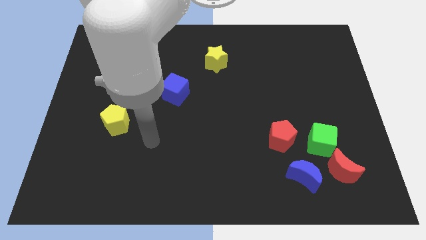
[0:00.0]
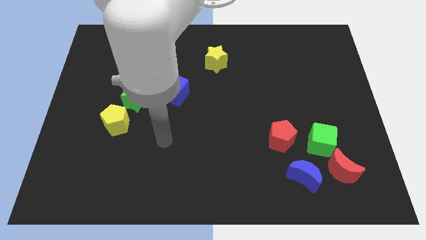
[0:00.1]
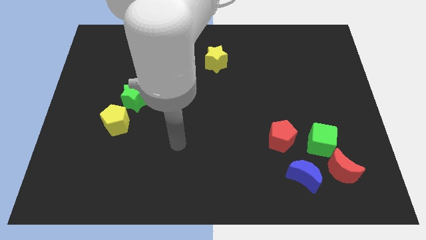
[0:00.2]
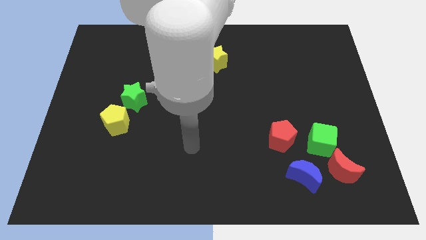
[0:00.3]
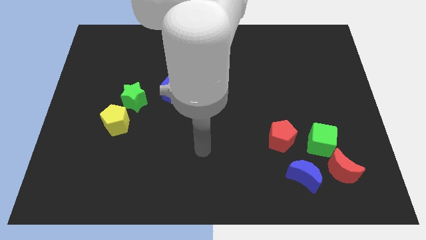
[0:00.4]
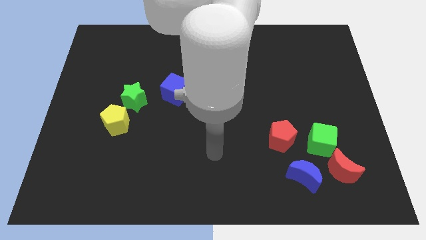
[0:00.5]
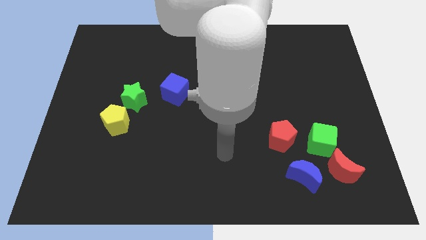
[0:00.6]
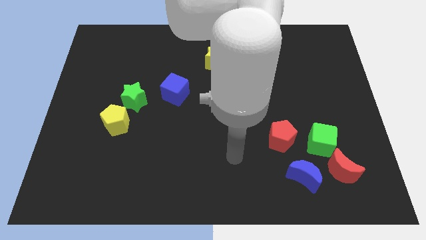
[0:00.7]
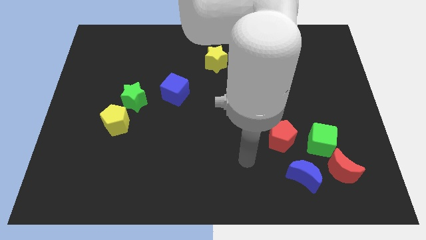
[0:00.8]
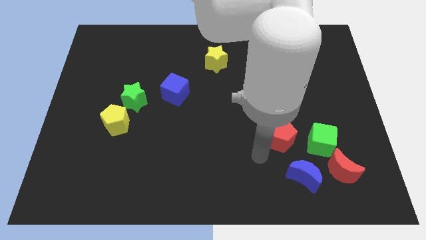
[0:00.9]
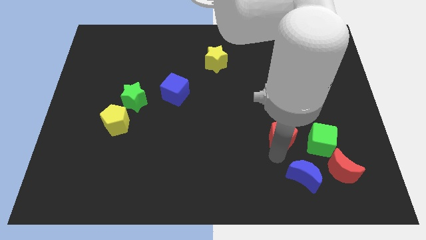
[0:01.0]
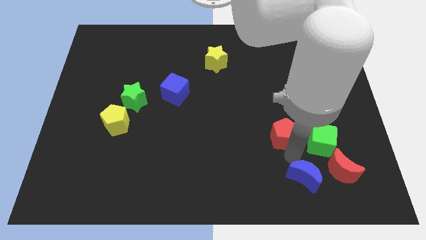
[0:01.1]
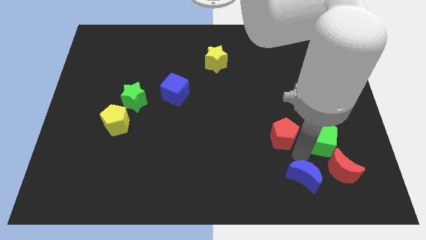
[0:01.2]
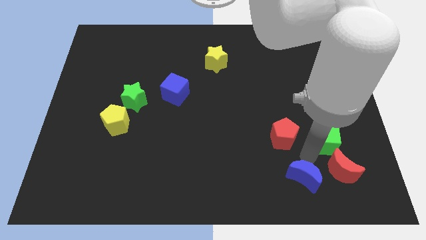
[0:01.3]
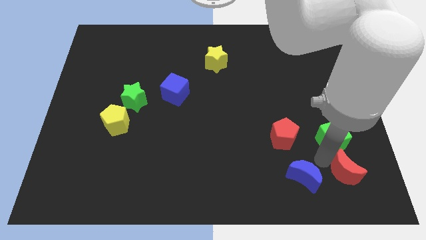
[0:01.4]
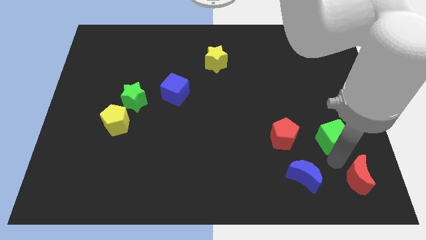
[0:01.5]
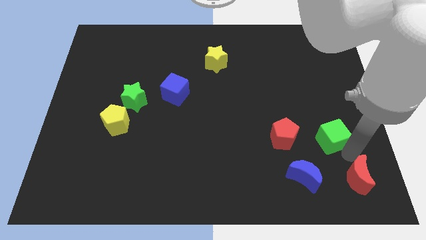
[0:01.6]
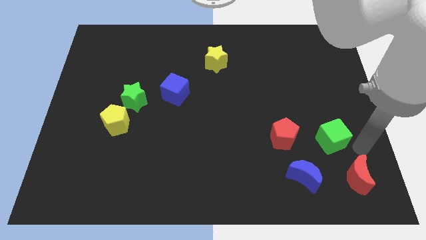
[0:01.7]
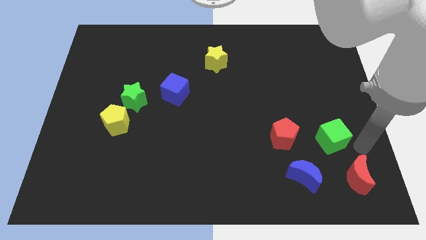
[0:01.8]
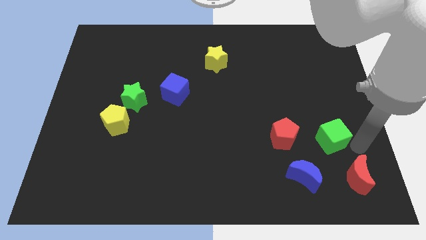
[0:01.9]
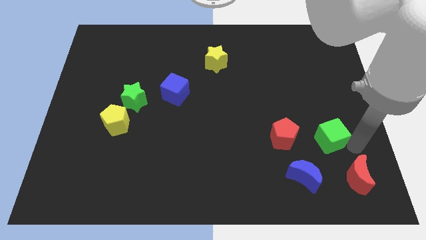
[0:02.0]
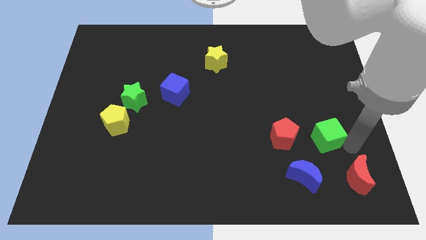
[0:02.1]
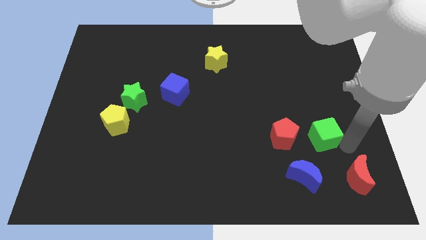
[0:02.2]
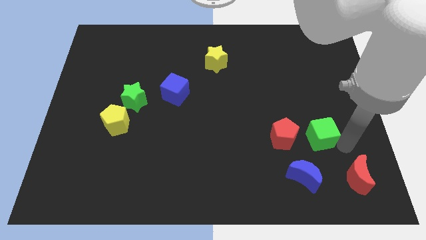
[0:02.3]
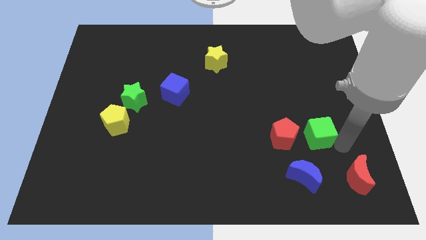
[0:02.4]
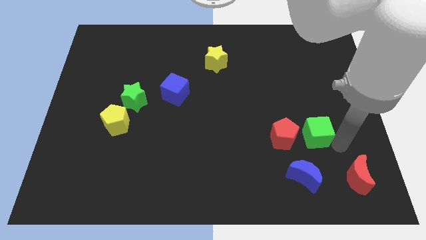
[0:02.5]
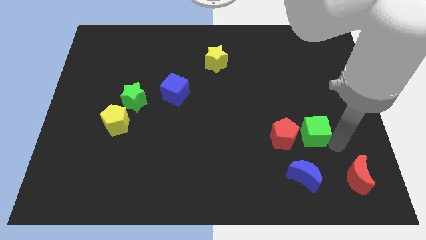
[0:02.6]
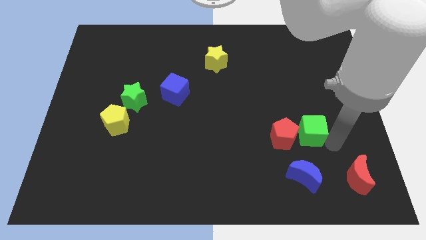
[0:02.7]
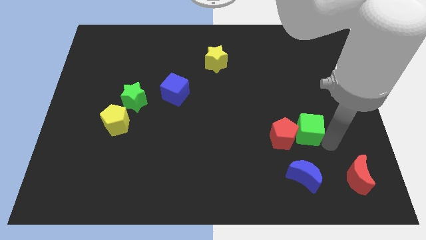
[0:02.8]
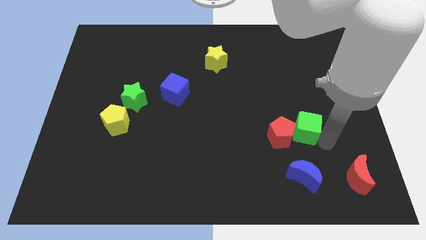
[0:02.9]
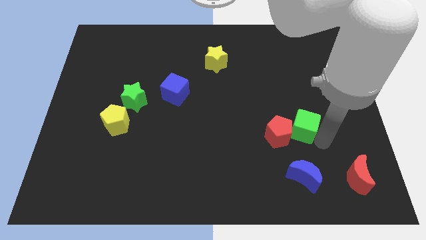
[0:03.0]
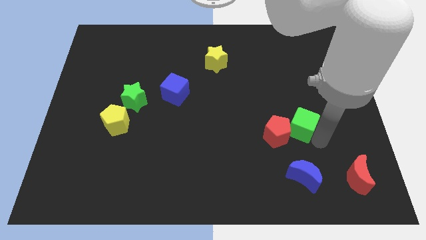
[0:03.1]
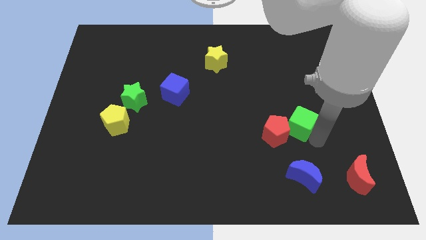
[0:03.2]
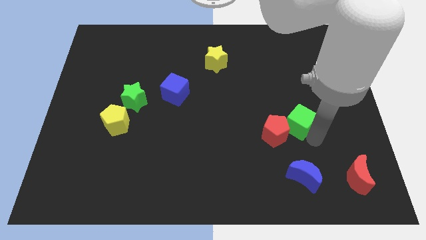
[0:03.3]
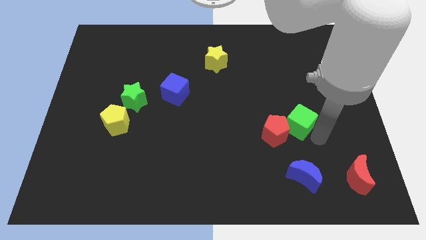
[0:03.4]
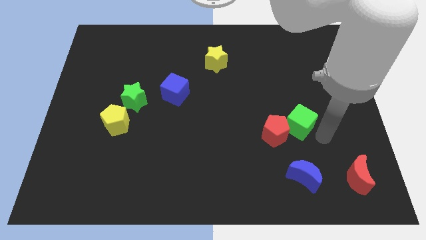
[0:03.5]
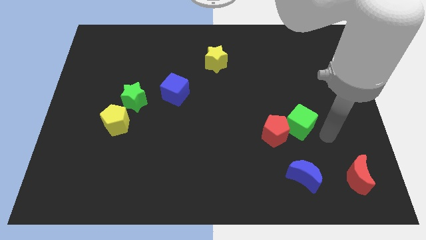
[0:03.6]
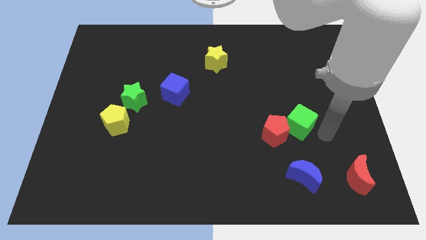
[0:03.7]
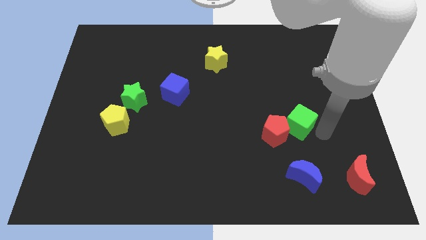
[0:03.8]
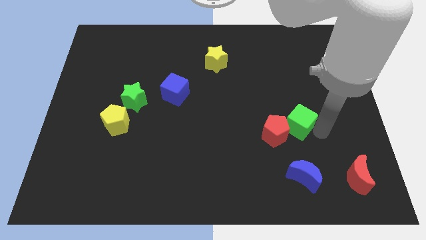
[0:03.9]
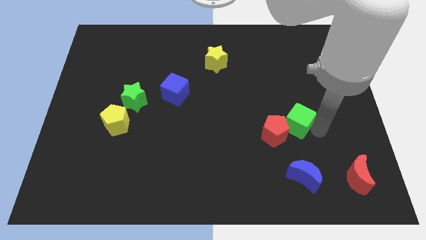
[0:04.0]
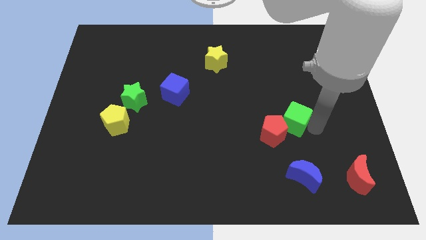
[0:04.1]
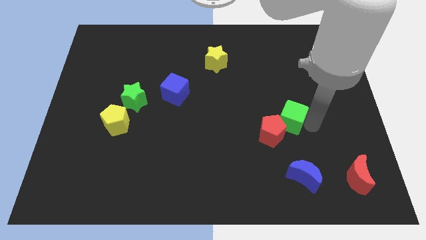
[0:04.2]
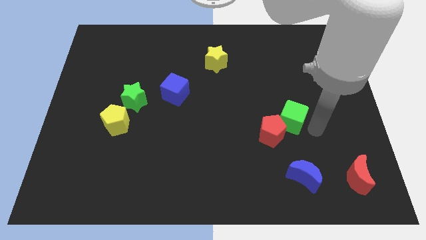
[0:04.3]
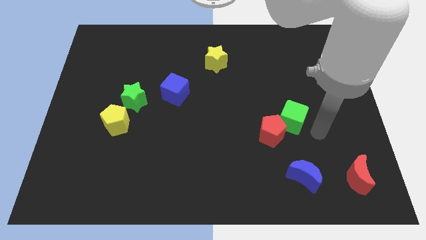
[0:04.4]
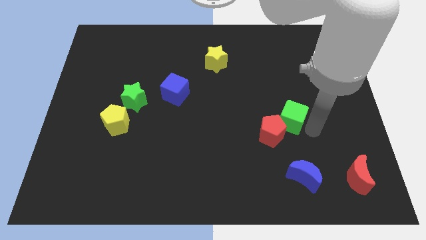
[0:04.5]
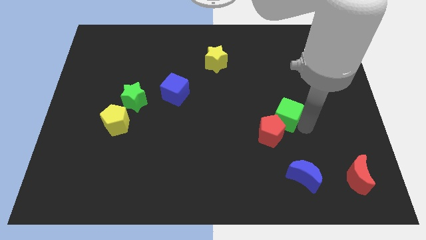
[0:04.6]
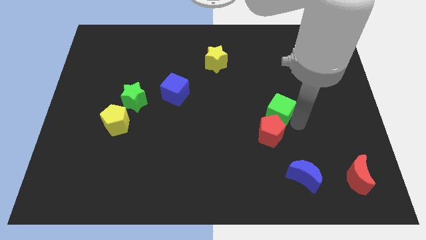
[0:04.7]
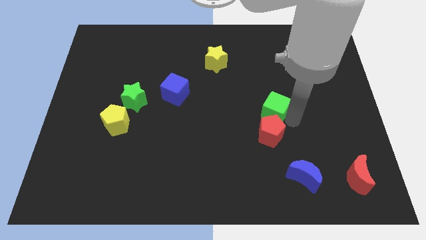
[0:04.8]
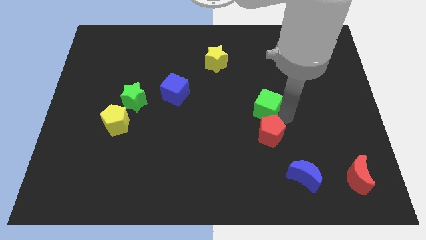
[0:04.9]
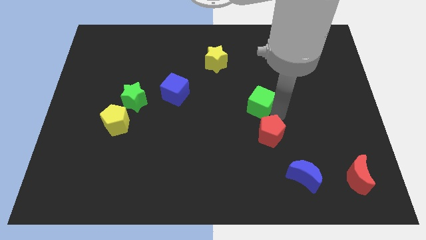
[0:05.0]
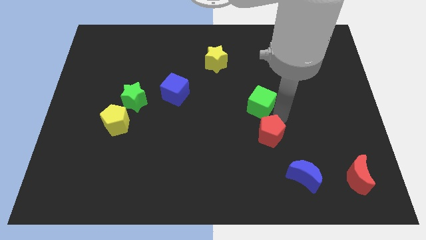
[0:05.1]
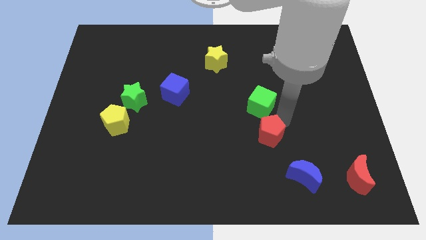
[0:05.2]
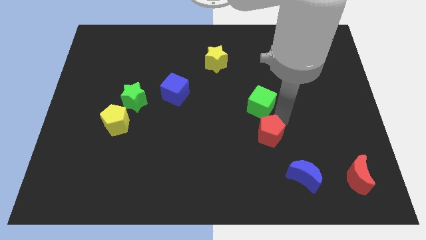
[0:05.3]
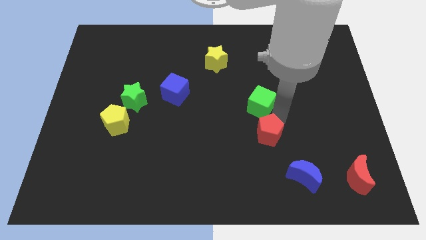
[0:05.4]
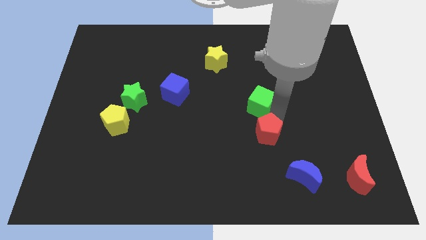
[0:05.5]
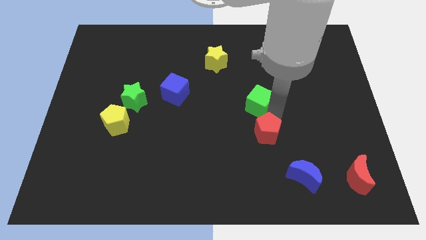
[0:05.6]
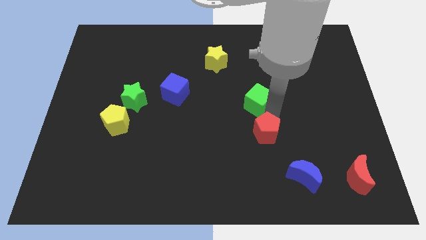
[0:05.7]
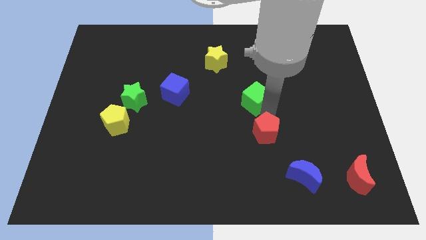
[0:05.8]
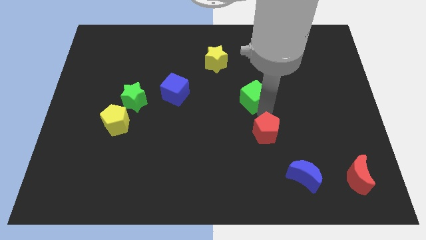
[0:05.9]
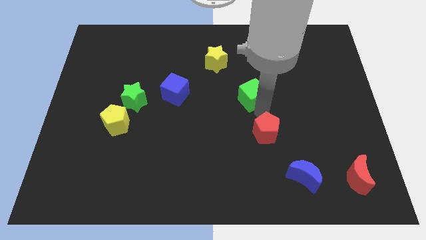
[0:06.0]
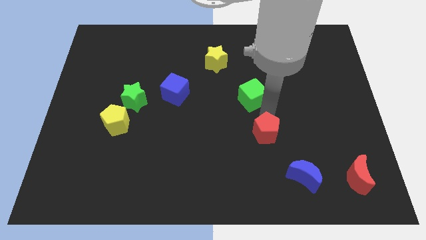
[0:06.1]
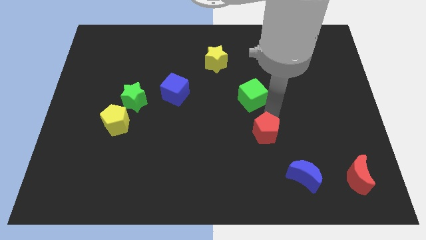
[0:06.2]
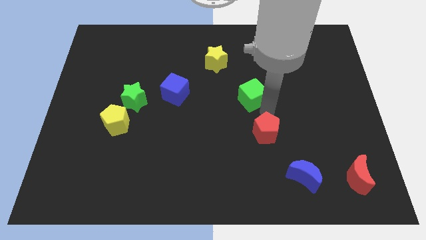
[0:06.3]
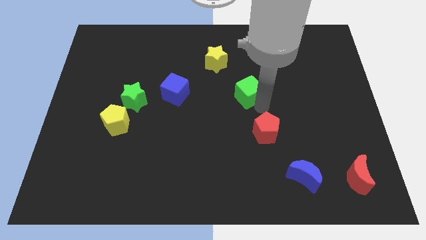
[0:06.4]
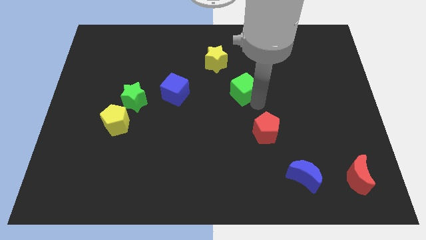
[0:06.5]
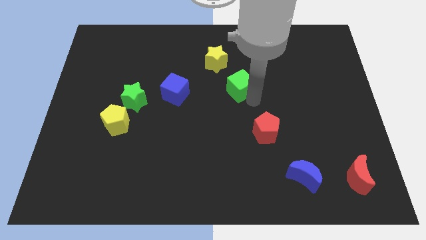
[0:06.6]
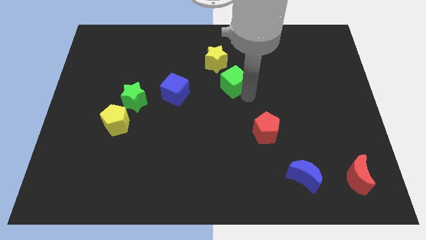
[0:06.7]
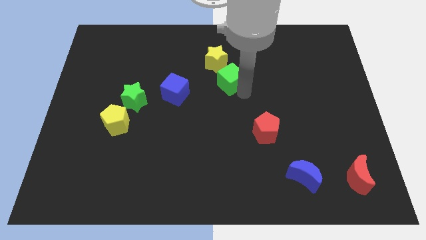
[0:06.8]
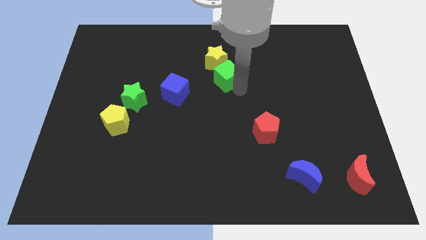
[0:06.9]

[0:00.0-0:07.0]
move the green cube towards the yellow star
